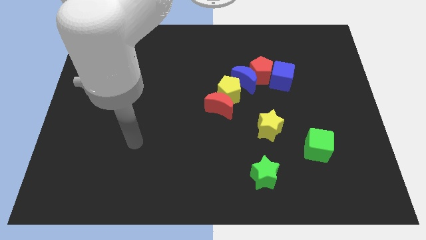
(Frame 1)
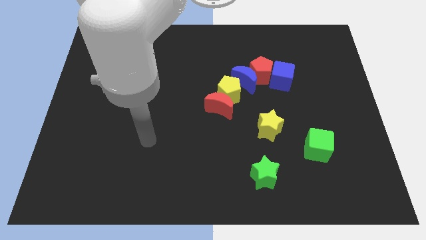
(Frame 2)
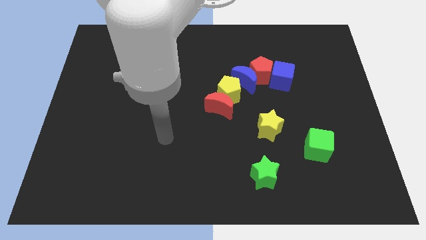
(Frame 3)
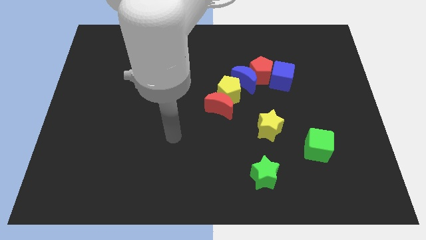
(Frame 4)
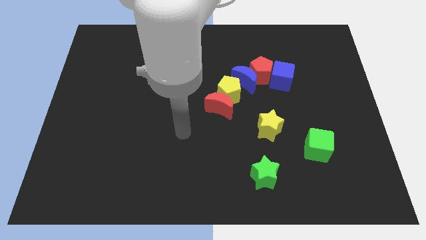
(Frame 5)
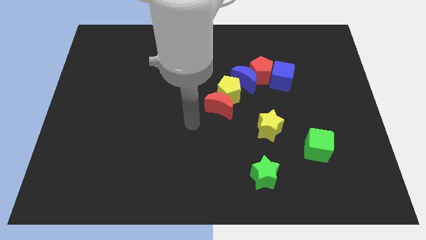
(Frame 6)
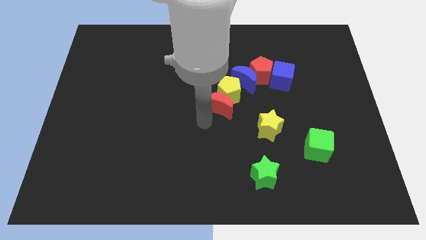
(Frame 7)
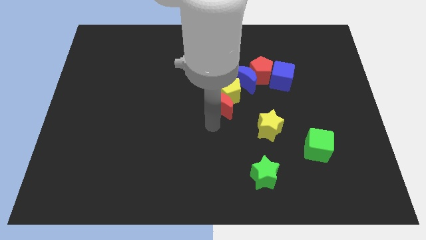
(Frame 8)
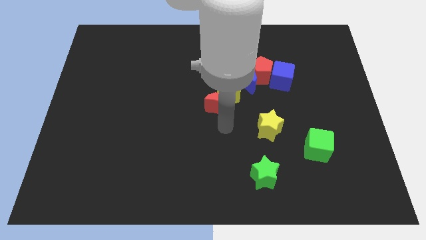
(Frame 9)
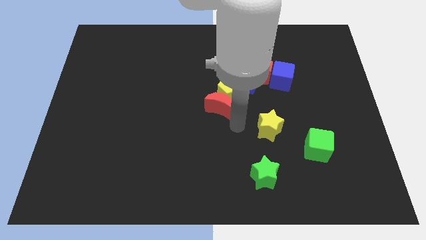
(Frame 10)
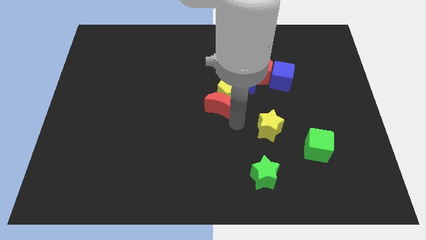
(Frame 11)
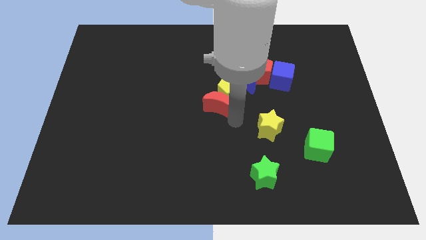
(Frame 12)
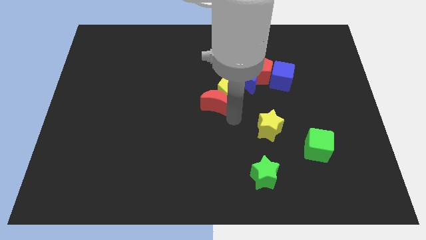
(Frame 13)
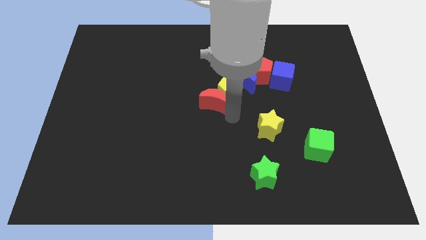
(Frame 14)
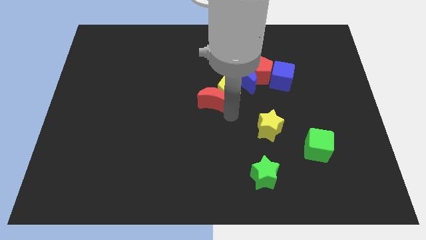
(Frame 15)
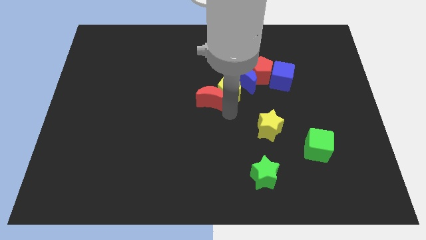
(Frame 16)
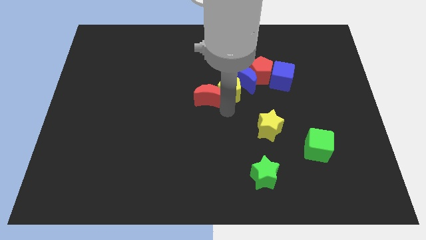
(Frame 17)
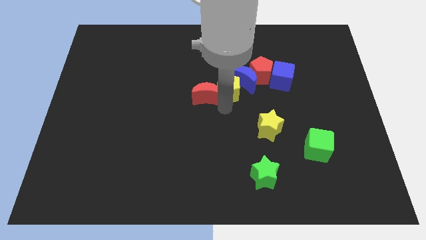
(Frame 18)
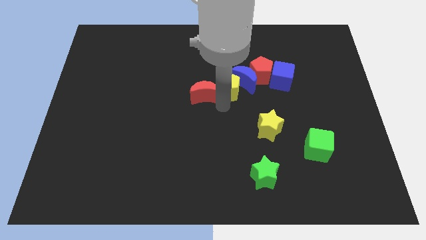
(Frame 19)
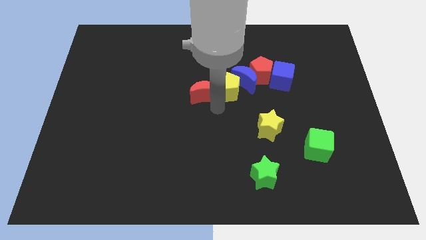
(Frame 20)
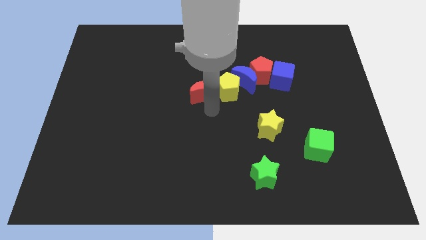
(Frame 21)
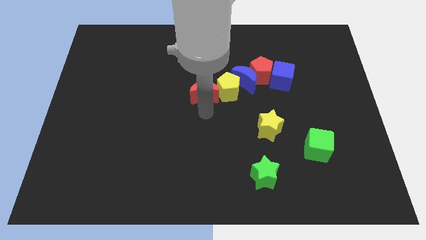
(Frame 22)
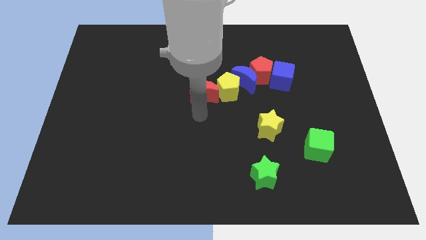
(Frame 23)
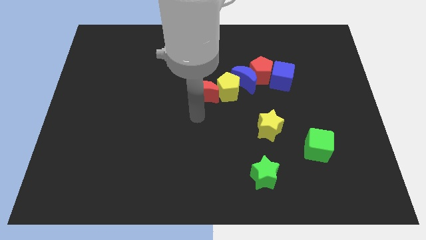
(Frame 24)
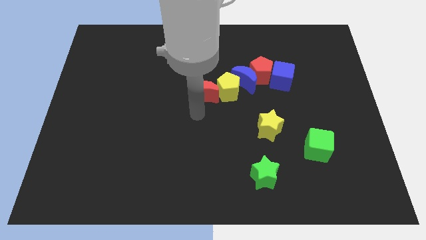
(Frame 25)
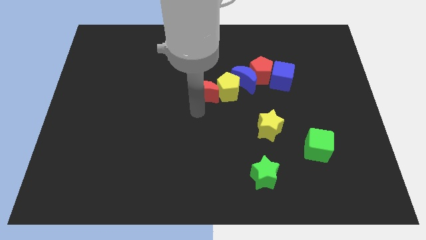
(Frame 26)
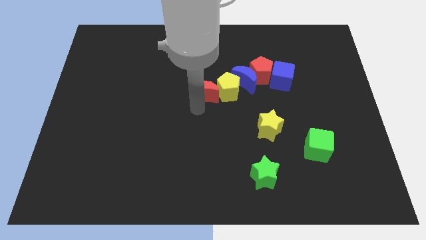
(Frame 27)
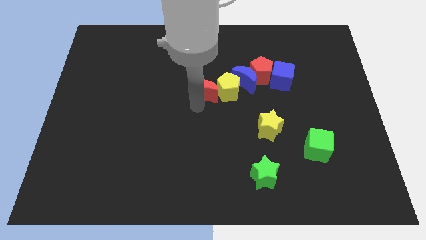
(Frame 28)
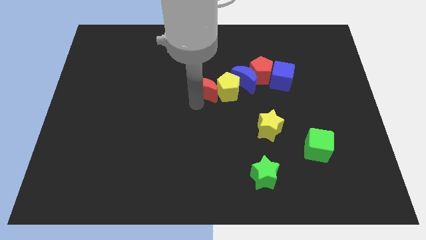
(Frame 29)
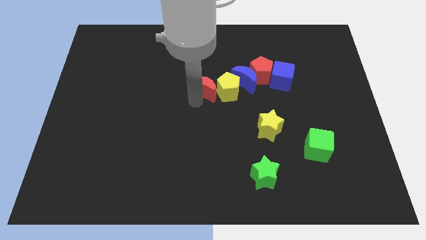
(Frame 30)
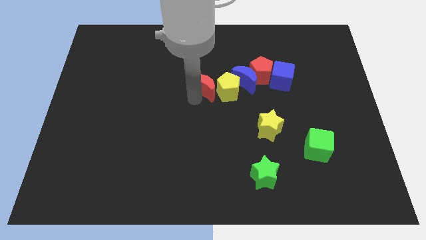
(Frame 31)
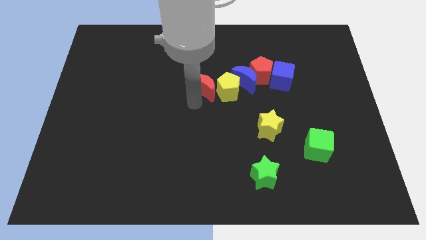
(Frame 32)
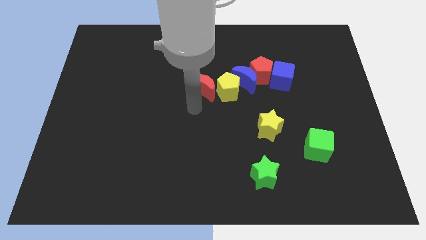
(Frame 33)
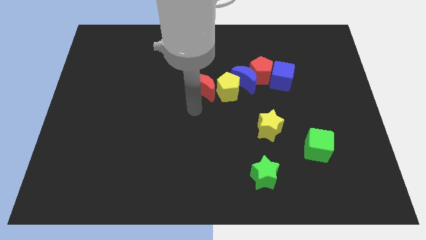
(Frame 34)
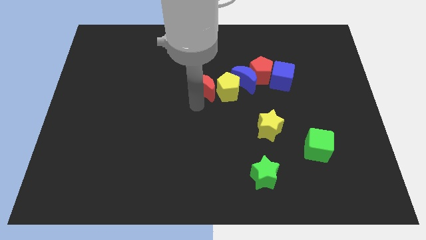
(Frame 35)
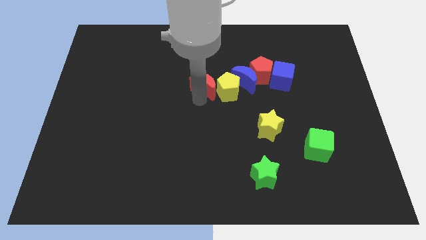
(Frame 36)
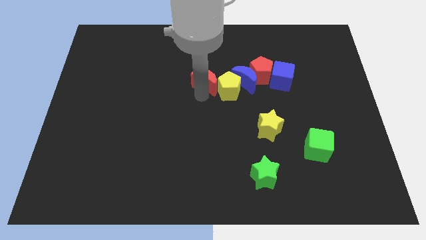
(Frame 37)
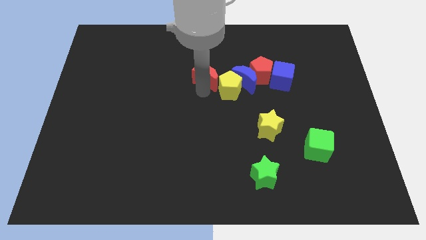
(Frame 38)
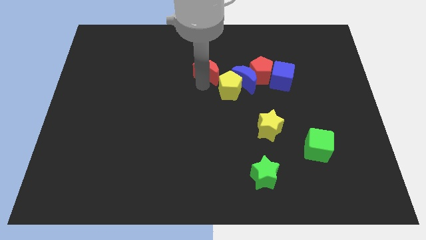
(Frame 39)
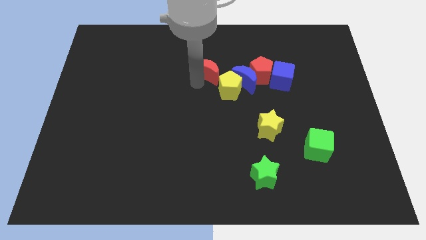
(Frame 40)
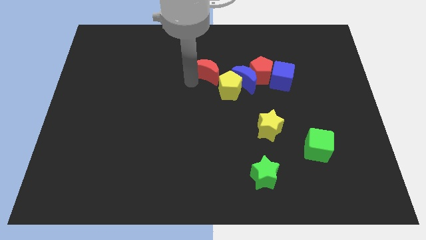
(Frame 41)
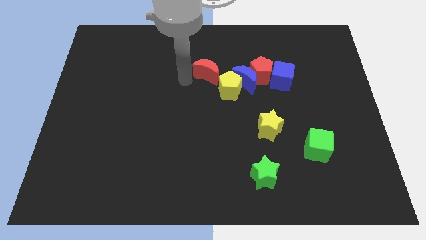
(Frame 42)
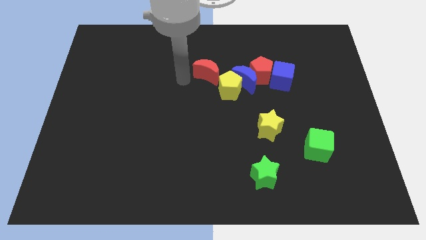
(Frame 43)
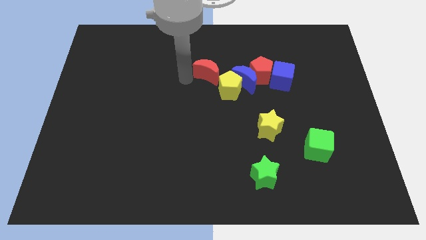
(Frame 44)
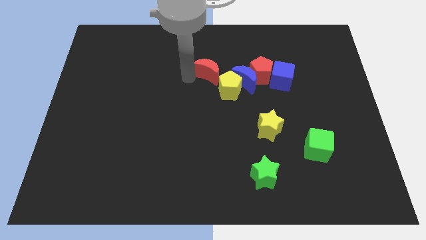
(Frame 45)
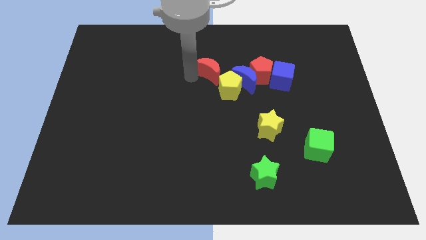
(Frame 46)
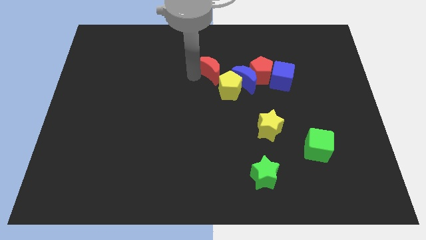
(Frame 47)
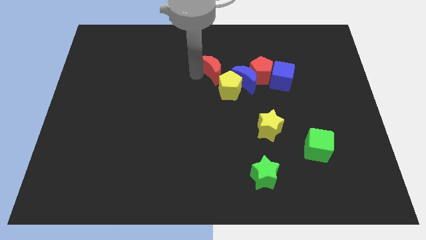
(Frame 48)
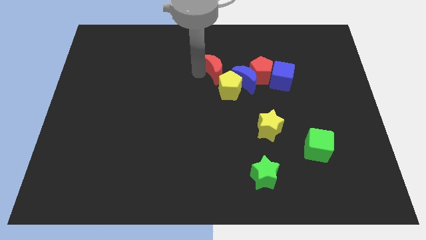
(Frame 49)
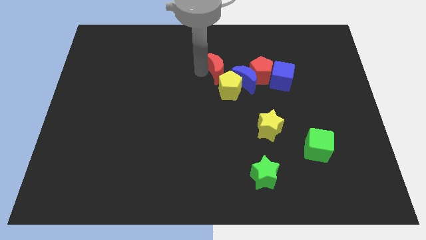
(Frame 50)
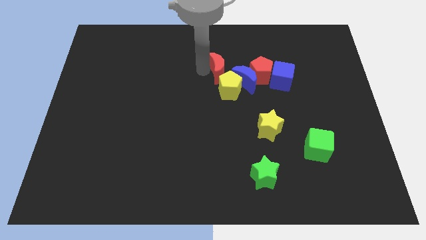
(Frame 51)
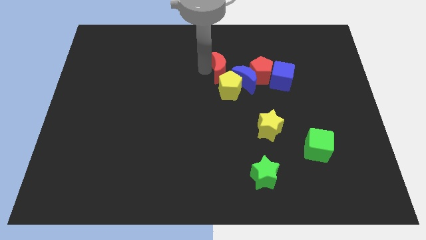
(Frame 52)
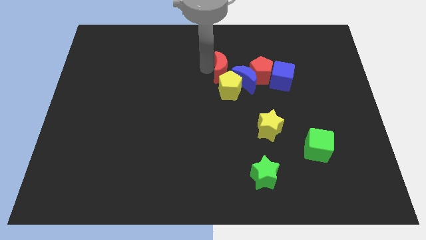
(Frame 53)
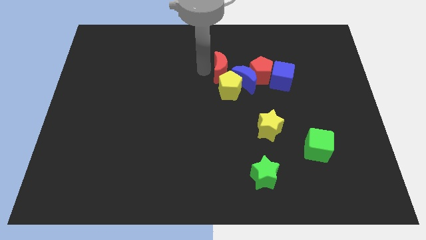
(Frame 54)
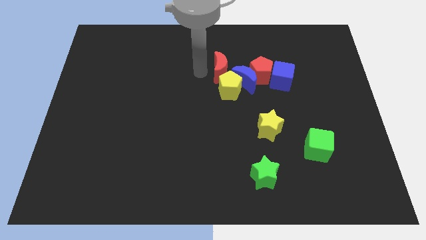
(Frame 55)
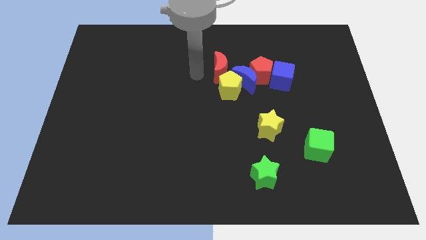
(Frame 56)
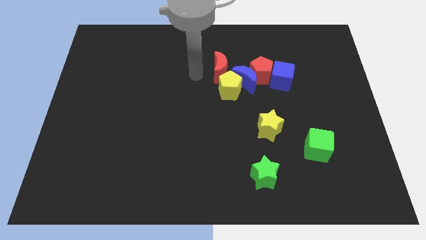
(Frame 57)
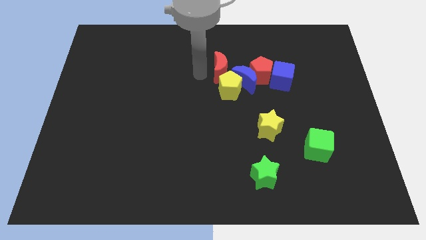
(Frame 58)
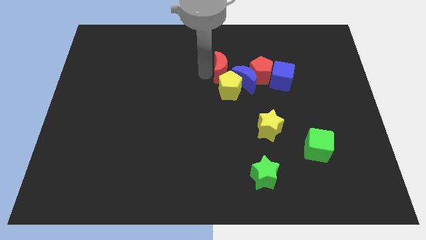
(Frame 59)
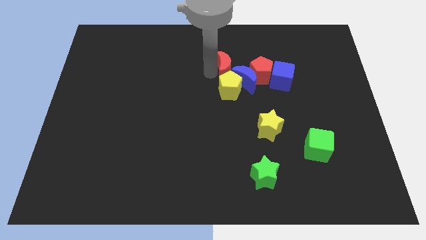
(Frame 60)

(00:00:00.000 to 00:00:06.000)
push the red moon a bit up and then right

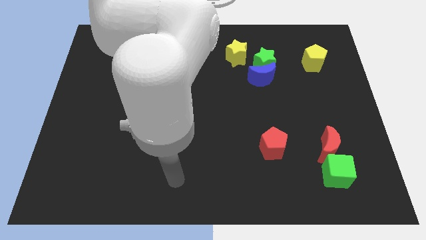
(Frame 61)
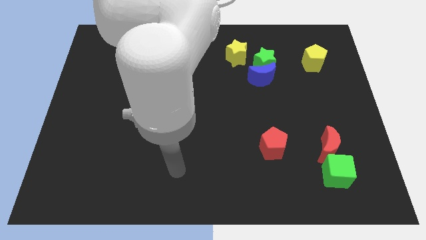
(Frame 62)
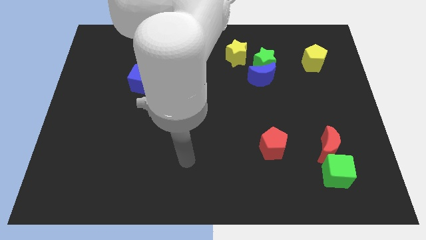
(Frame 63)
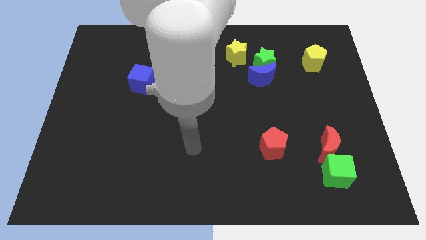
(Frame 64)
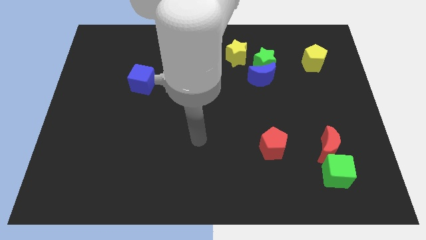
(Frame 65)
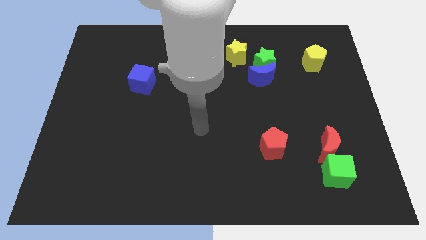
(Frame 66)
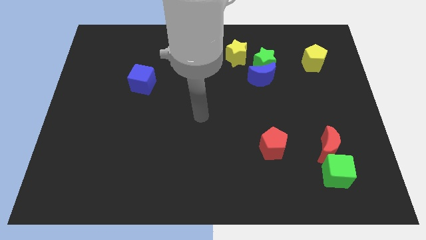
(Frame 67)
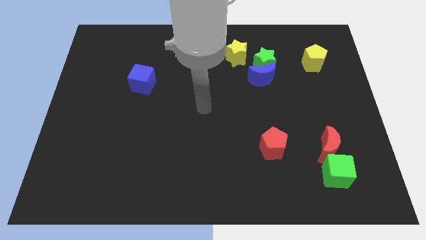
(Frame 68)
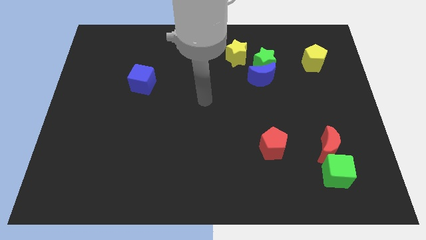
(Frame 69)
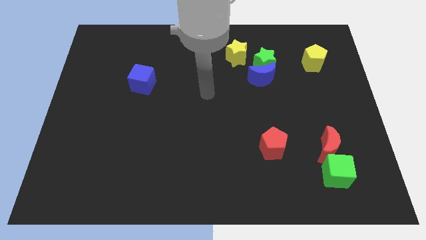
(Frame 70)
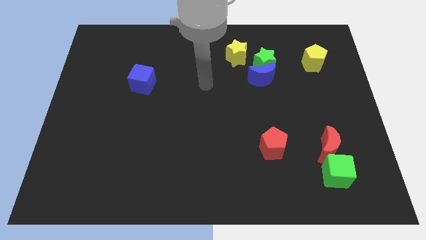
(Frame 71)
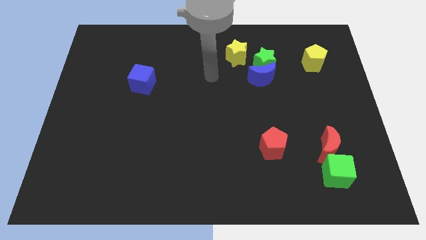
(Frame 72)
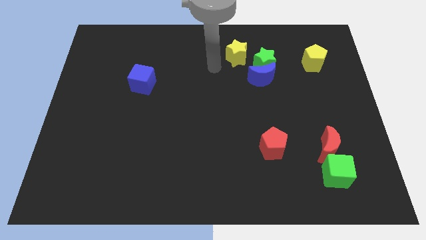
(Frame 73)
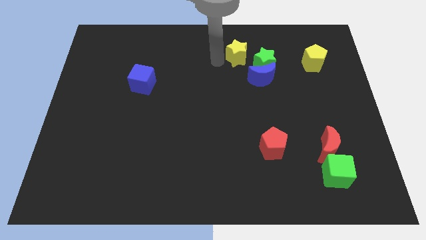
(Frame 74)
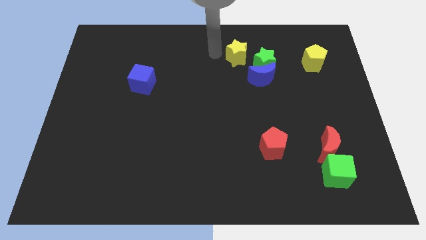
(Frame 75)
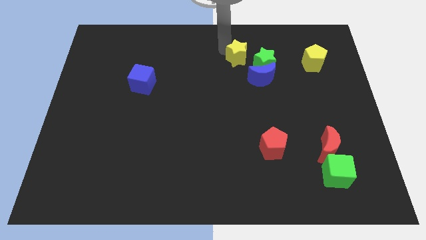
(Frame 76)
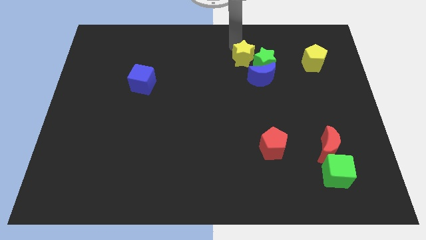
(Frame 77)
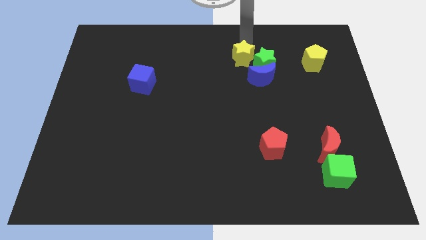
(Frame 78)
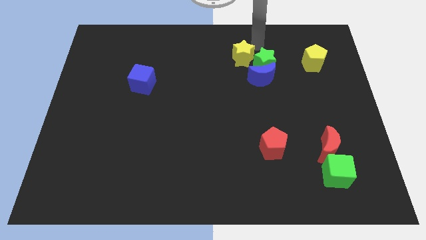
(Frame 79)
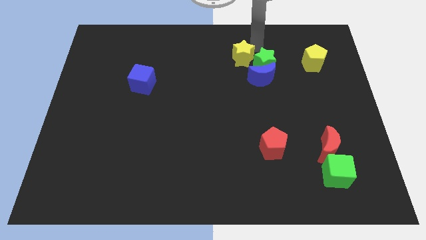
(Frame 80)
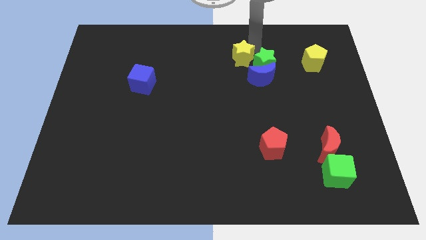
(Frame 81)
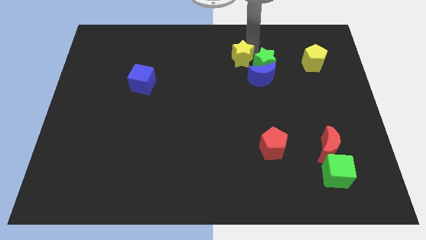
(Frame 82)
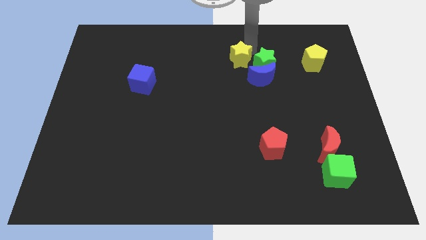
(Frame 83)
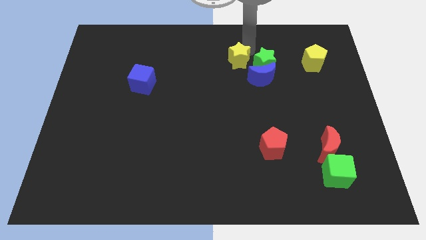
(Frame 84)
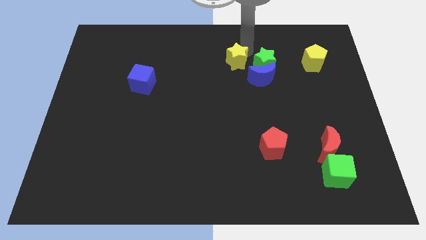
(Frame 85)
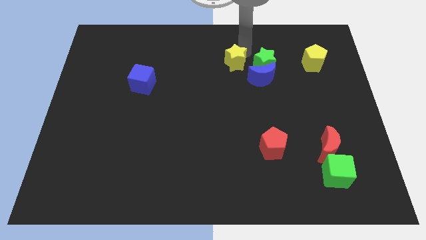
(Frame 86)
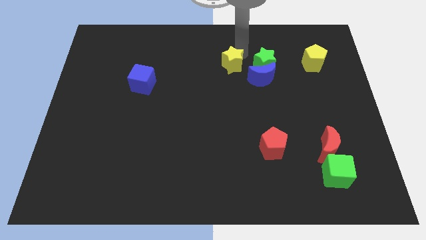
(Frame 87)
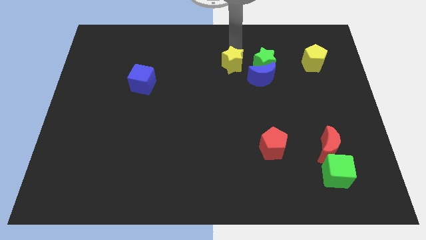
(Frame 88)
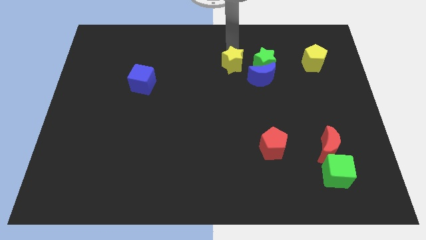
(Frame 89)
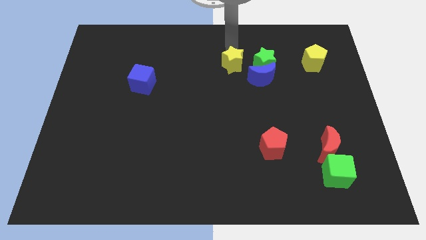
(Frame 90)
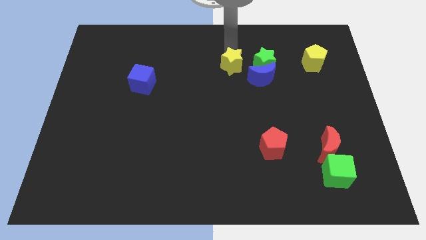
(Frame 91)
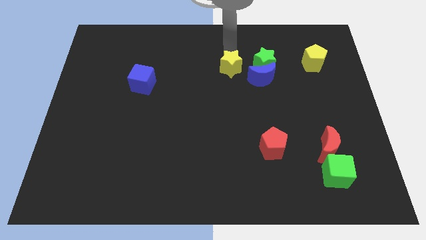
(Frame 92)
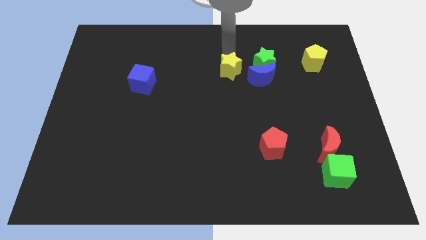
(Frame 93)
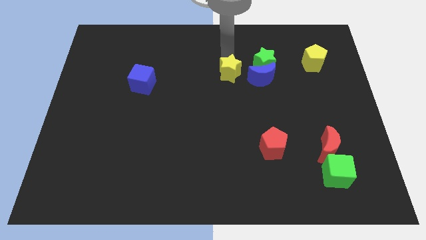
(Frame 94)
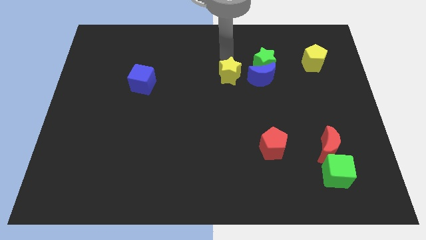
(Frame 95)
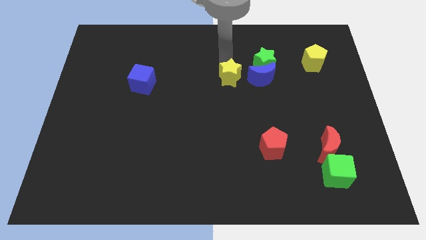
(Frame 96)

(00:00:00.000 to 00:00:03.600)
slightly slide the yellow star downwards
